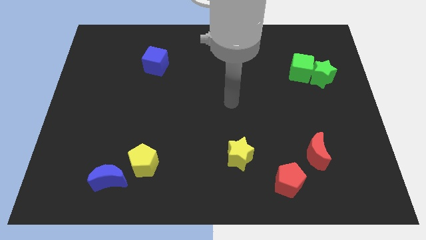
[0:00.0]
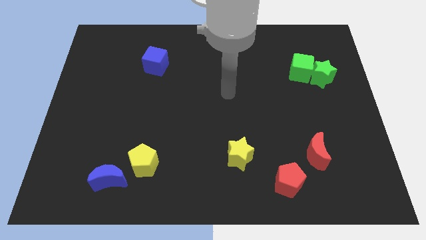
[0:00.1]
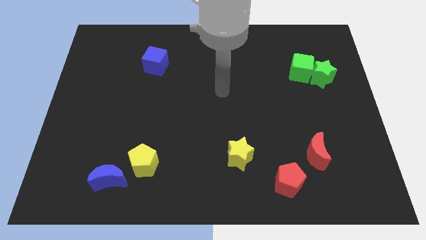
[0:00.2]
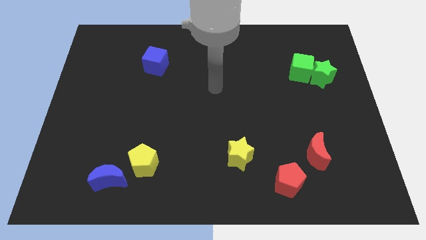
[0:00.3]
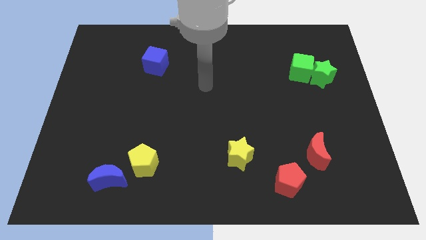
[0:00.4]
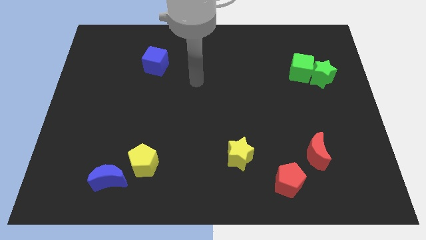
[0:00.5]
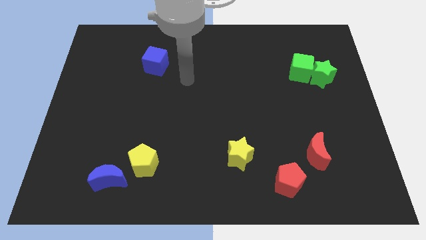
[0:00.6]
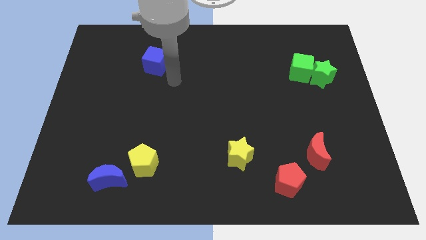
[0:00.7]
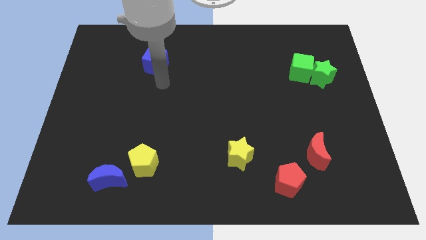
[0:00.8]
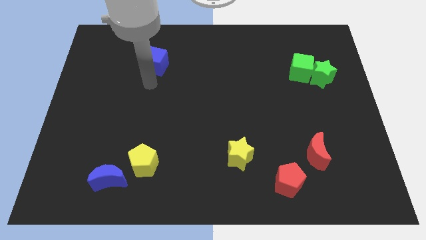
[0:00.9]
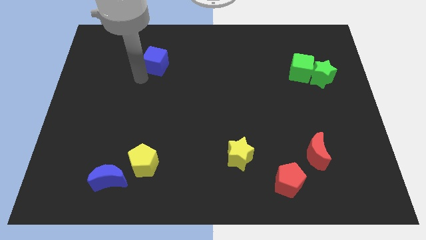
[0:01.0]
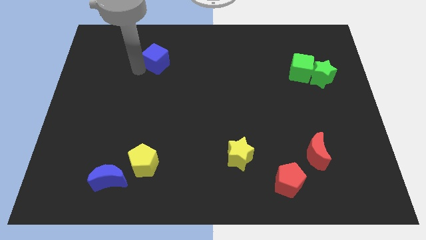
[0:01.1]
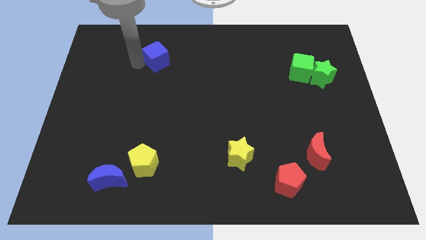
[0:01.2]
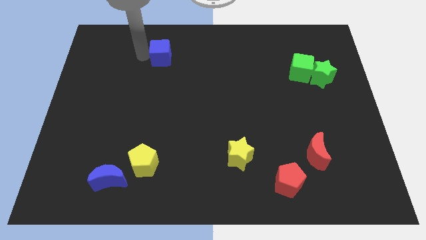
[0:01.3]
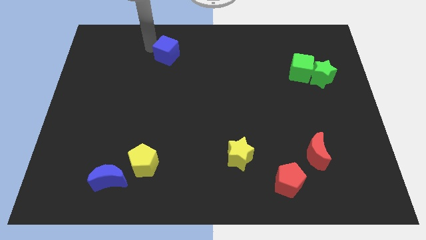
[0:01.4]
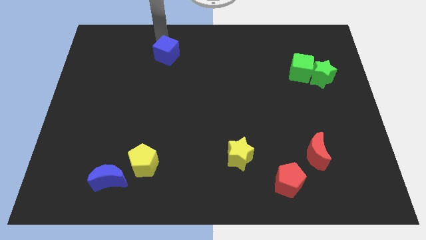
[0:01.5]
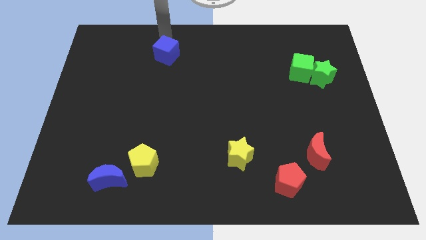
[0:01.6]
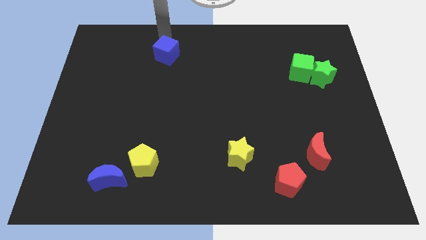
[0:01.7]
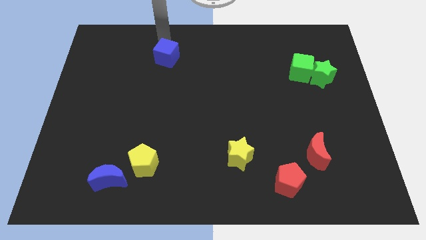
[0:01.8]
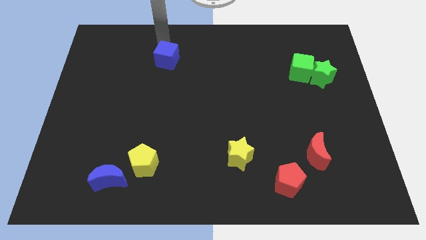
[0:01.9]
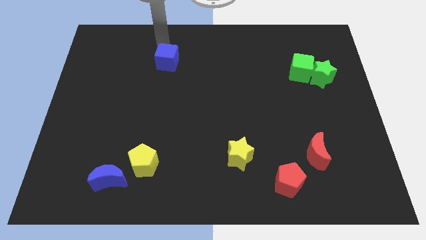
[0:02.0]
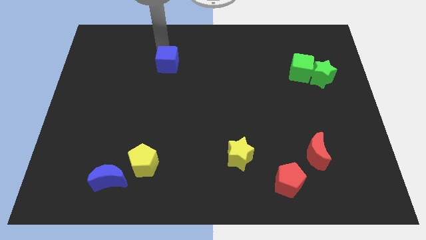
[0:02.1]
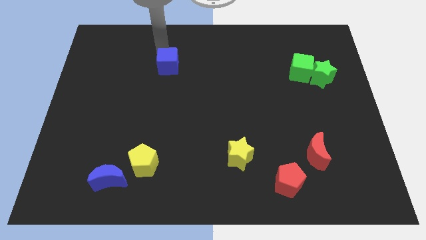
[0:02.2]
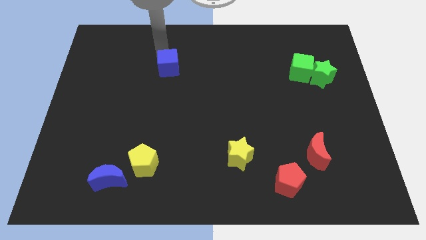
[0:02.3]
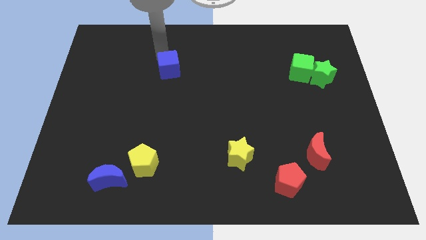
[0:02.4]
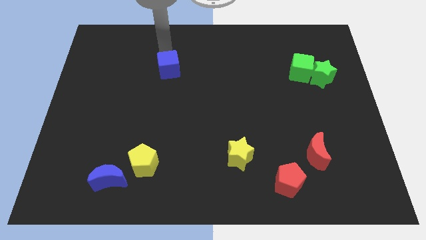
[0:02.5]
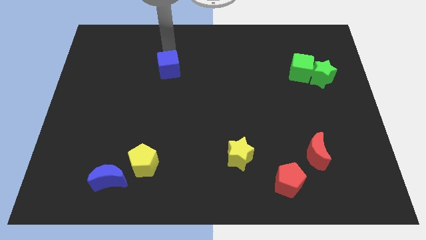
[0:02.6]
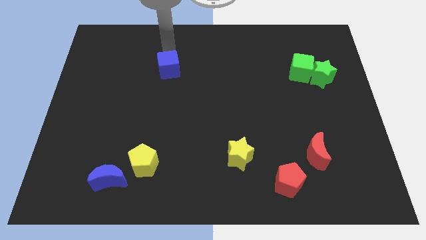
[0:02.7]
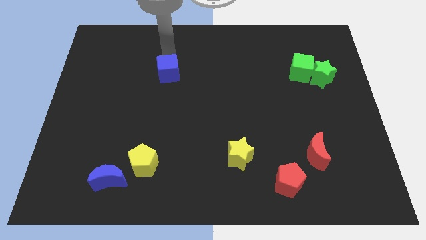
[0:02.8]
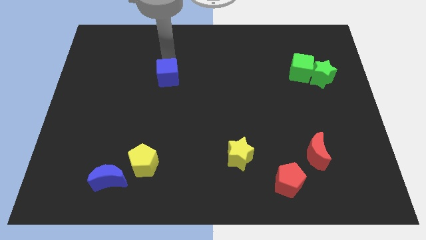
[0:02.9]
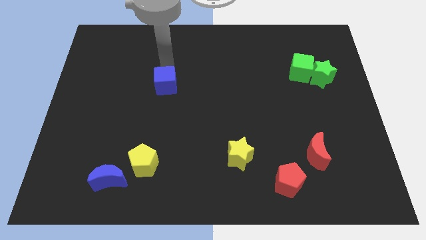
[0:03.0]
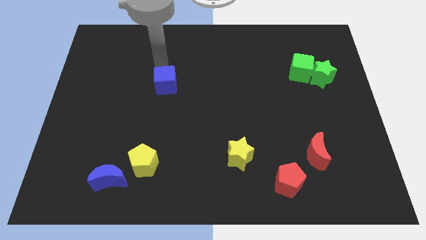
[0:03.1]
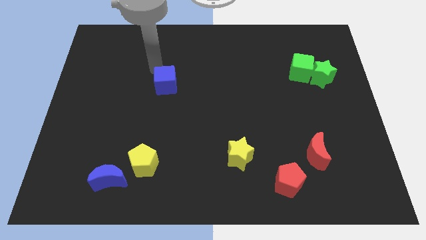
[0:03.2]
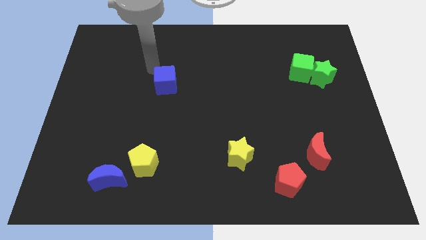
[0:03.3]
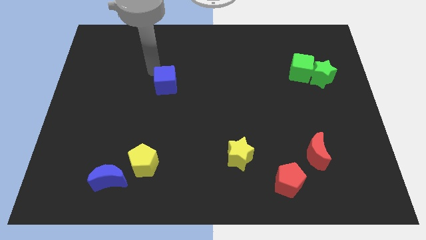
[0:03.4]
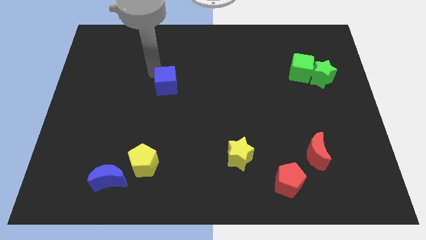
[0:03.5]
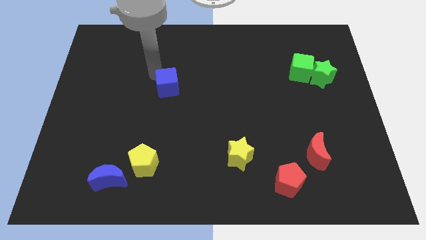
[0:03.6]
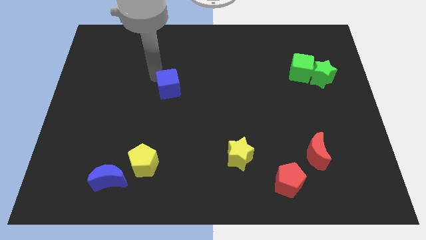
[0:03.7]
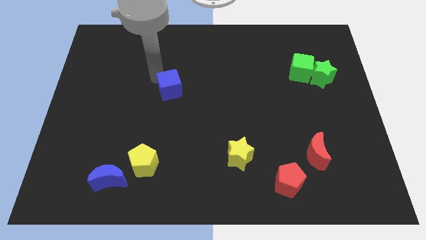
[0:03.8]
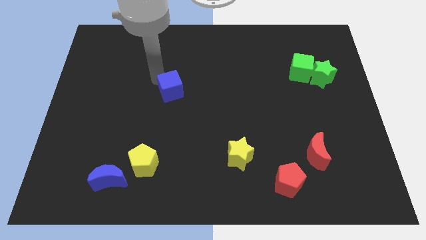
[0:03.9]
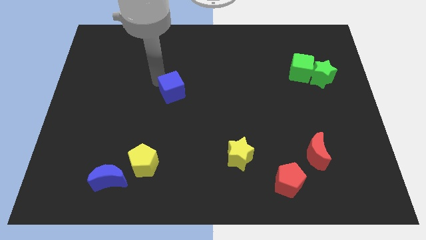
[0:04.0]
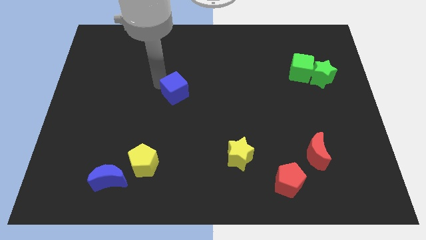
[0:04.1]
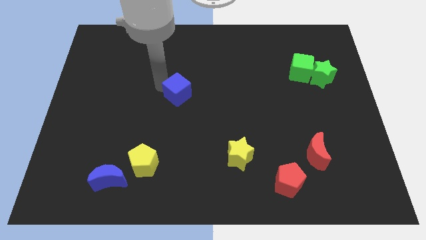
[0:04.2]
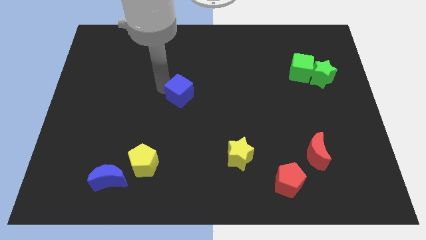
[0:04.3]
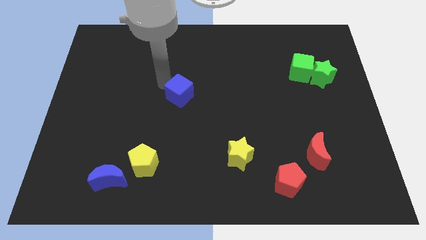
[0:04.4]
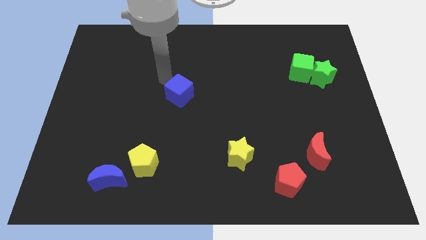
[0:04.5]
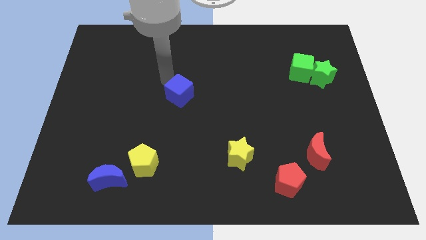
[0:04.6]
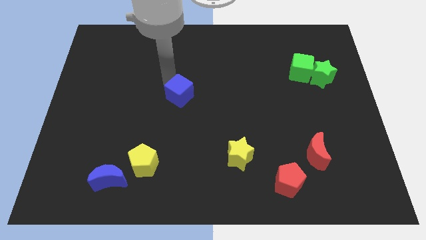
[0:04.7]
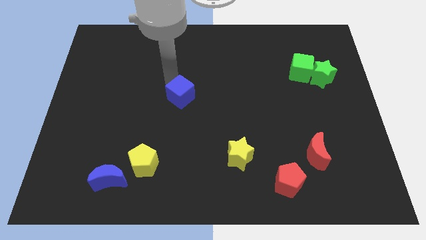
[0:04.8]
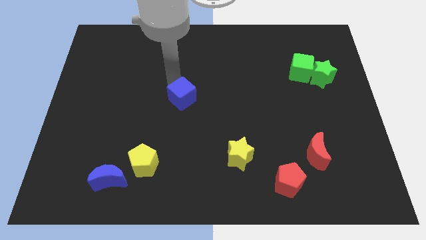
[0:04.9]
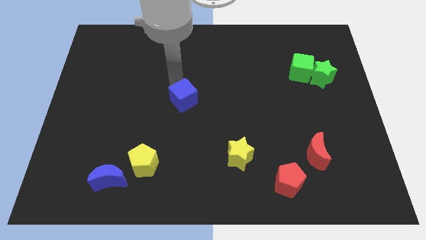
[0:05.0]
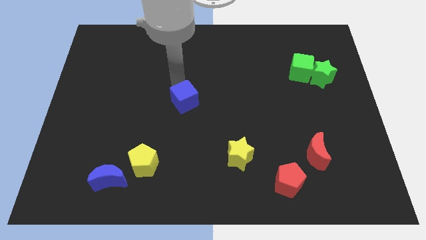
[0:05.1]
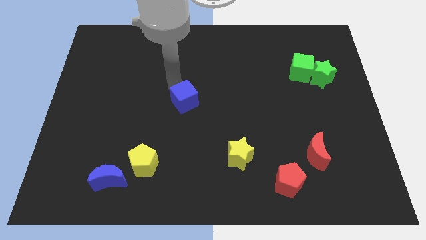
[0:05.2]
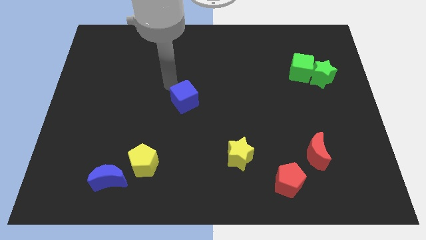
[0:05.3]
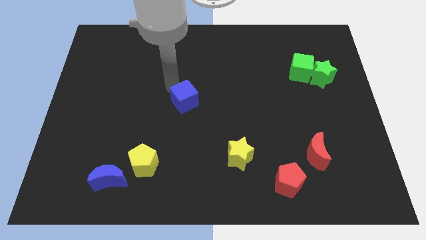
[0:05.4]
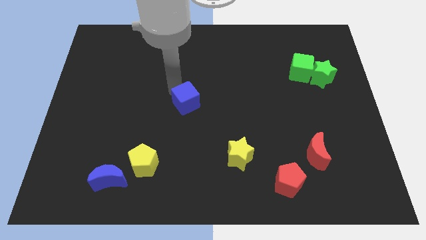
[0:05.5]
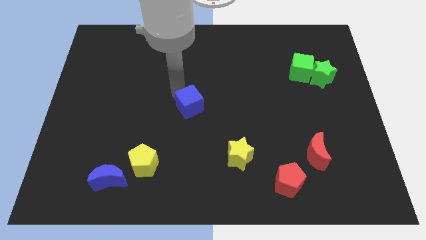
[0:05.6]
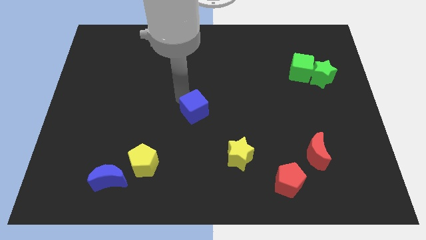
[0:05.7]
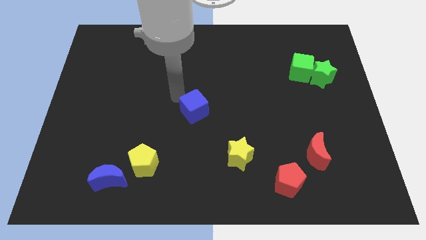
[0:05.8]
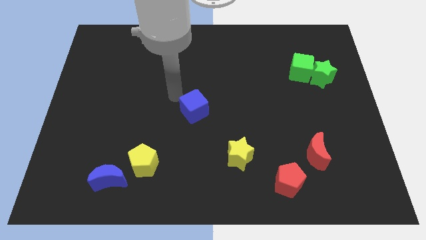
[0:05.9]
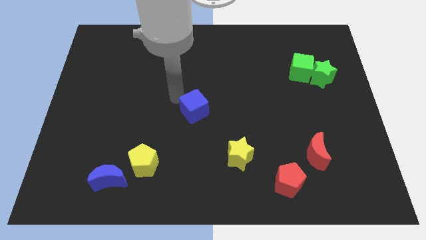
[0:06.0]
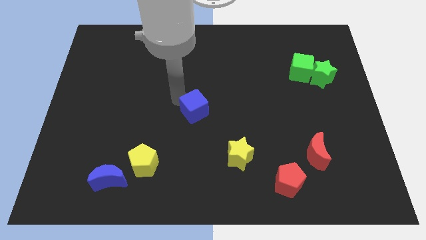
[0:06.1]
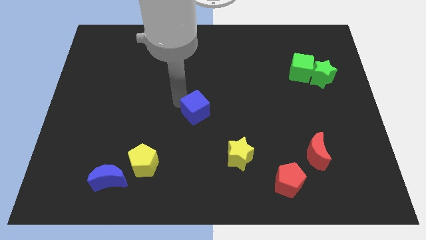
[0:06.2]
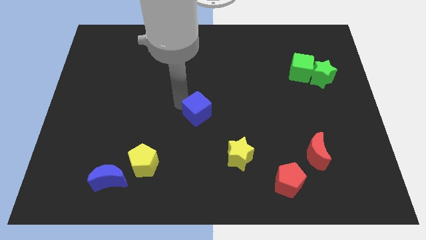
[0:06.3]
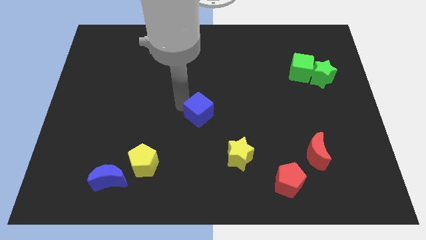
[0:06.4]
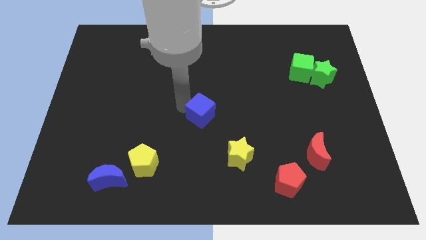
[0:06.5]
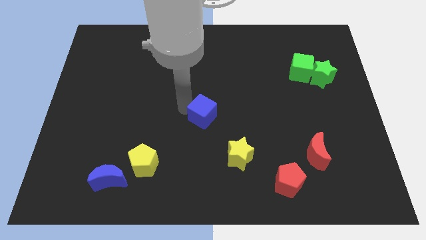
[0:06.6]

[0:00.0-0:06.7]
push the blue cube diagonally downwards and to the right

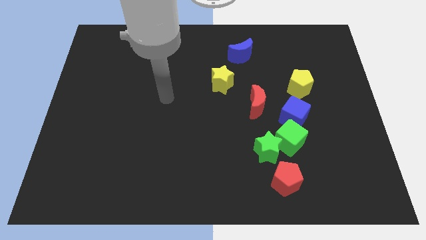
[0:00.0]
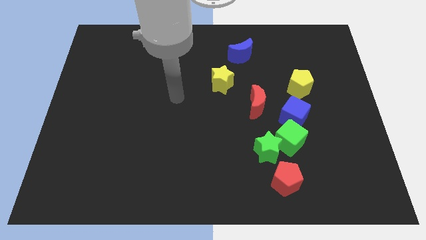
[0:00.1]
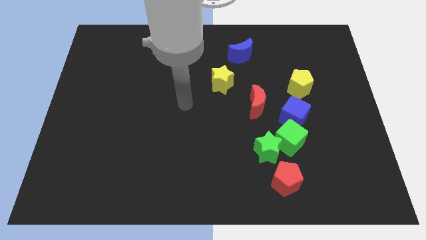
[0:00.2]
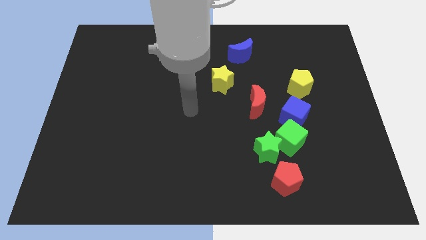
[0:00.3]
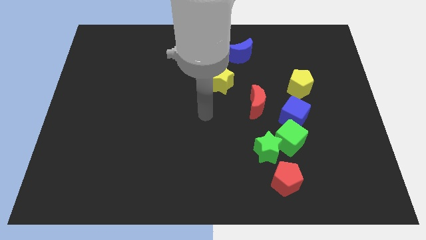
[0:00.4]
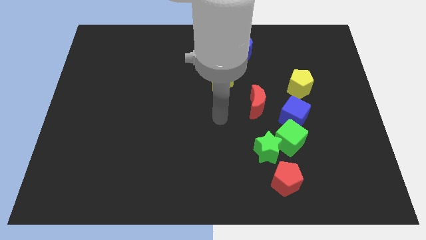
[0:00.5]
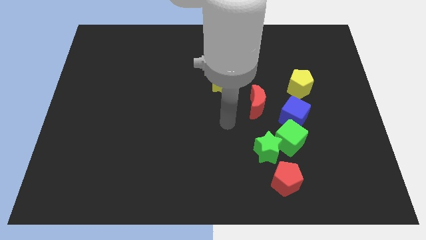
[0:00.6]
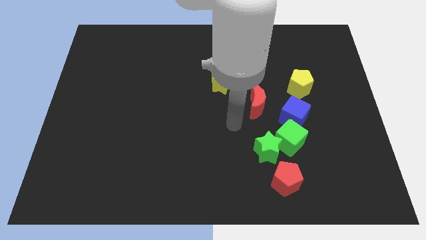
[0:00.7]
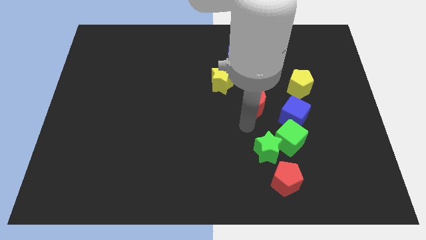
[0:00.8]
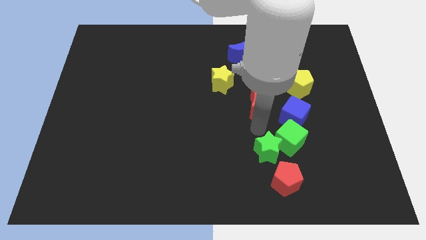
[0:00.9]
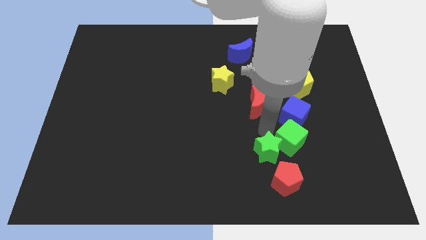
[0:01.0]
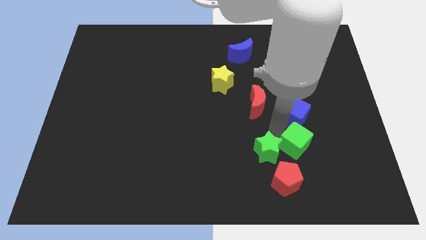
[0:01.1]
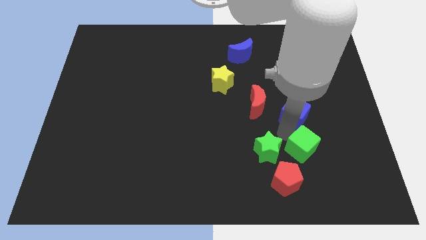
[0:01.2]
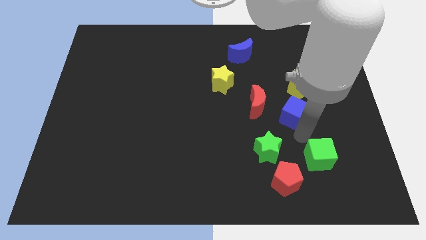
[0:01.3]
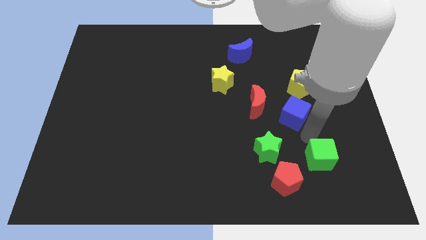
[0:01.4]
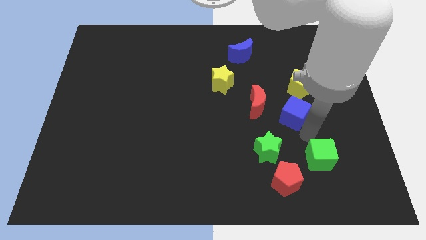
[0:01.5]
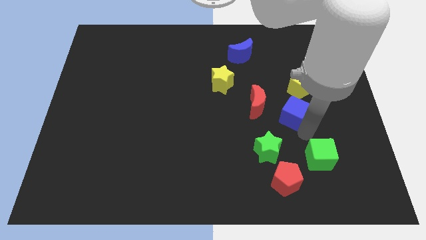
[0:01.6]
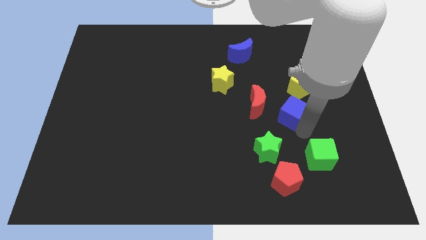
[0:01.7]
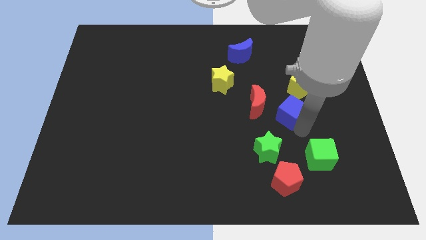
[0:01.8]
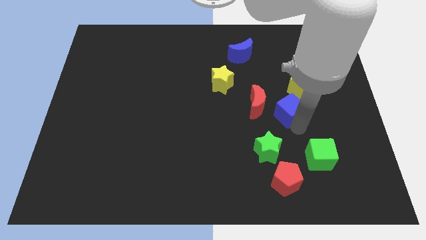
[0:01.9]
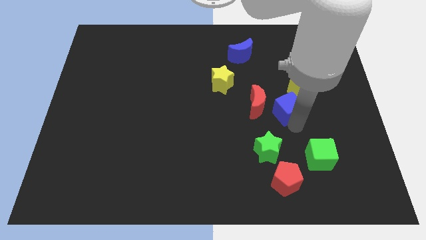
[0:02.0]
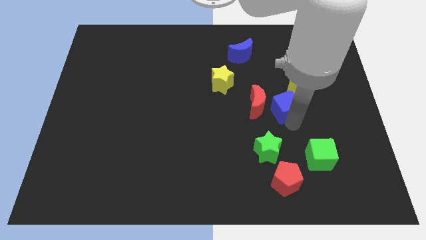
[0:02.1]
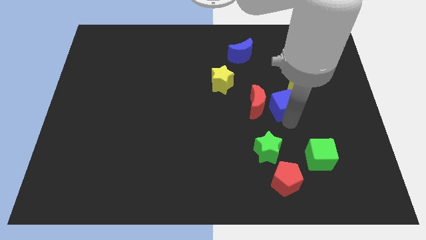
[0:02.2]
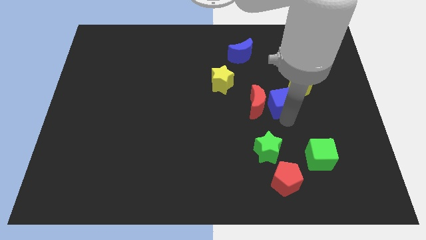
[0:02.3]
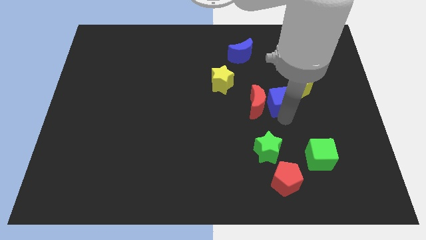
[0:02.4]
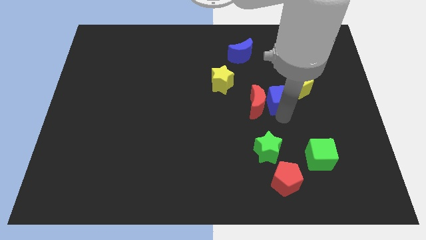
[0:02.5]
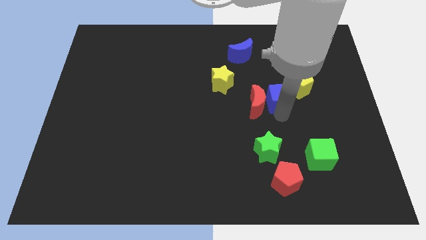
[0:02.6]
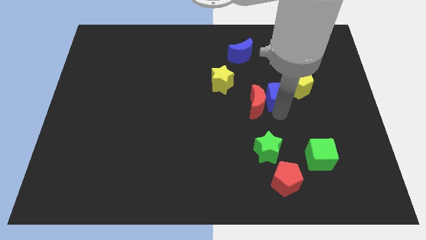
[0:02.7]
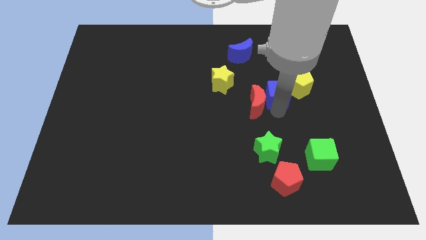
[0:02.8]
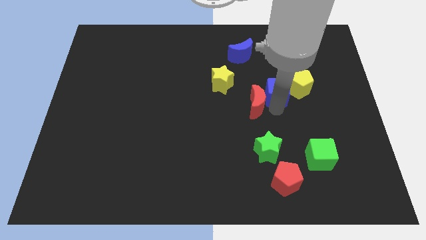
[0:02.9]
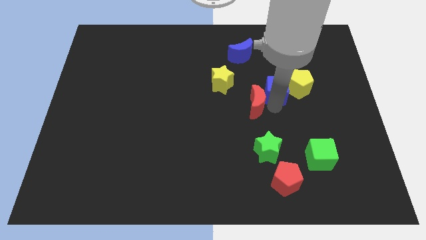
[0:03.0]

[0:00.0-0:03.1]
slide the blue cube up a little
